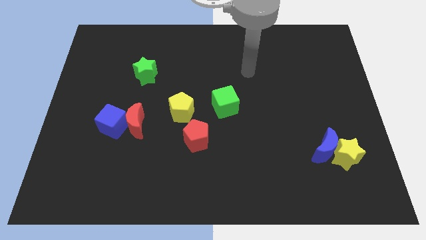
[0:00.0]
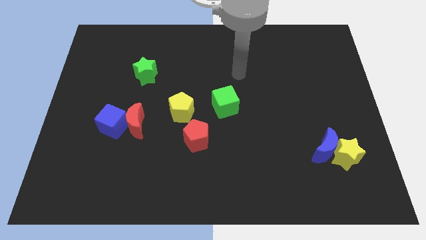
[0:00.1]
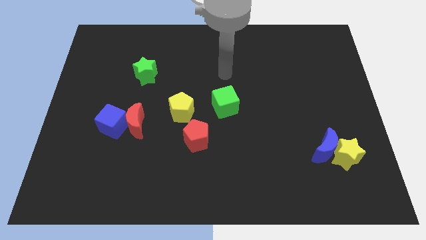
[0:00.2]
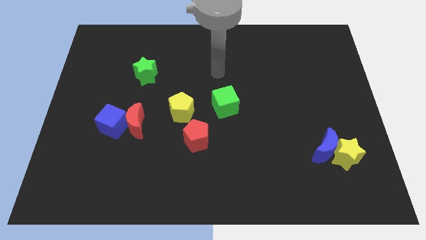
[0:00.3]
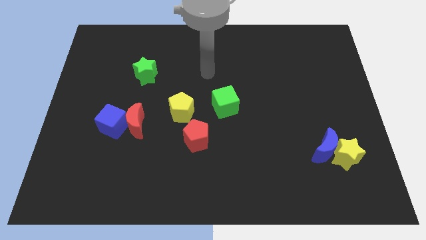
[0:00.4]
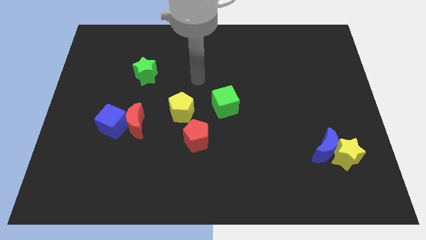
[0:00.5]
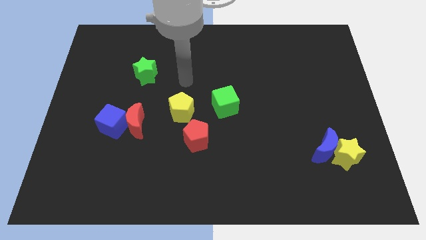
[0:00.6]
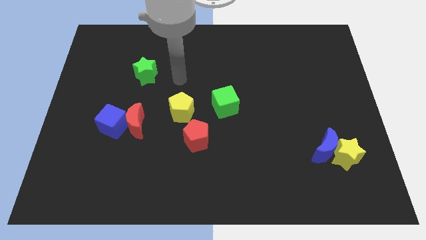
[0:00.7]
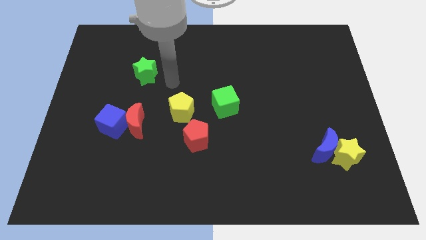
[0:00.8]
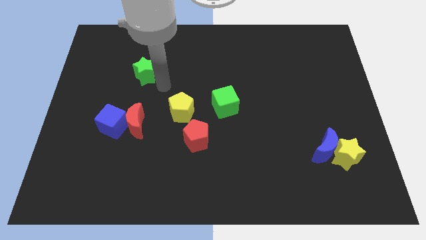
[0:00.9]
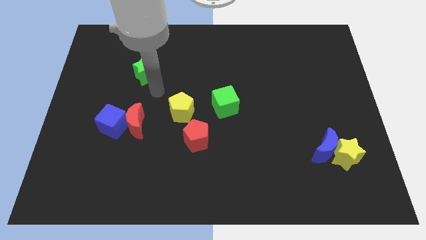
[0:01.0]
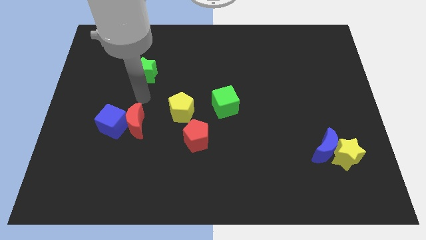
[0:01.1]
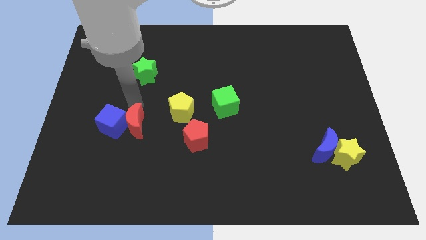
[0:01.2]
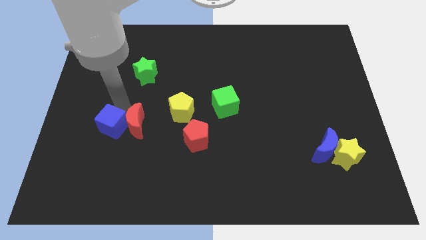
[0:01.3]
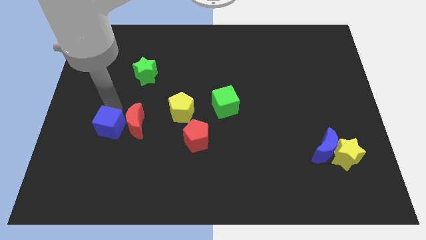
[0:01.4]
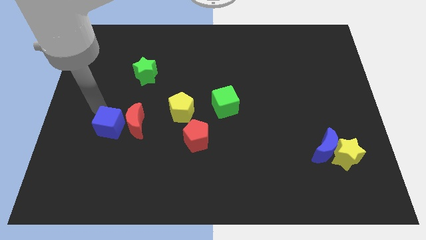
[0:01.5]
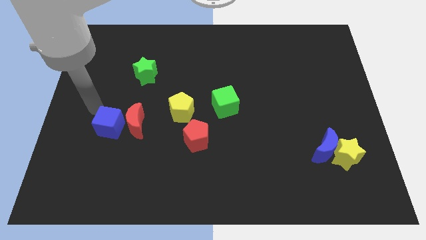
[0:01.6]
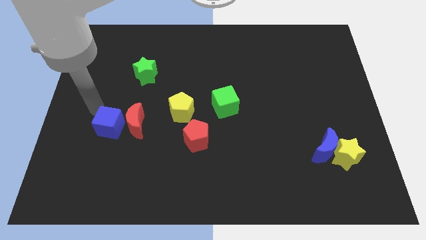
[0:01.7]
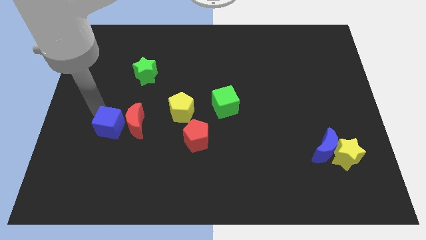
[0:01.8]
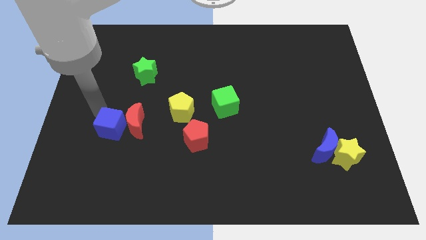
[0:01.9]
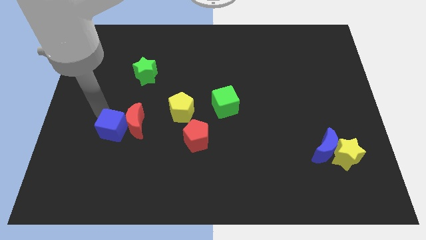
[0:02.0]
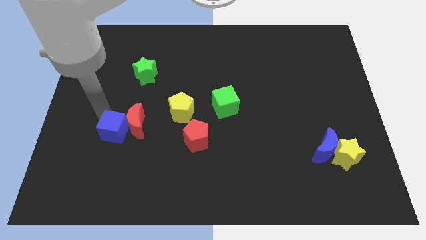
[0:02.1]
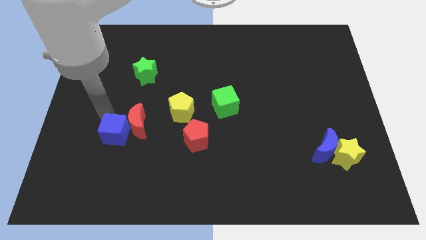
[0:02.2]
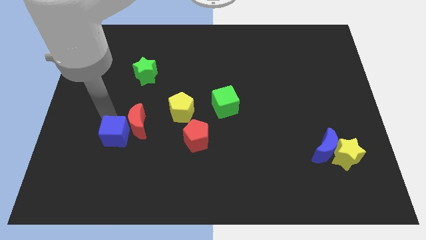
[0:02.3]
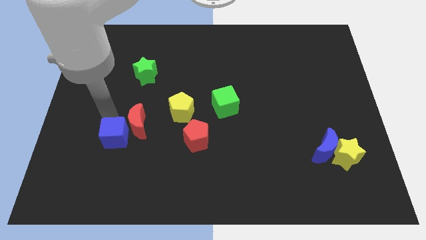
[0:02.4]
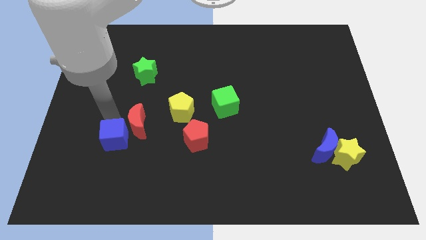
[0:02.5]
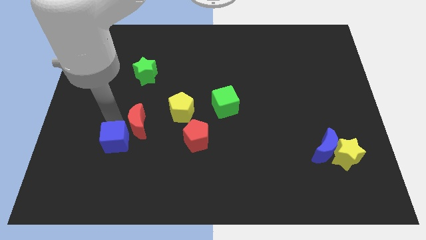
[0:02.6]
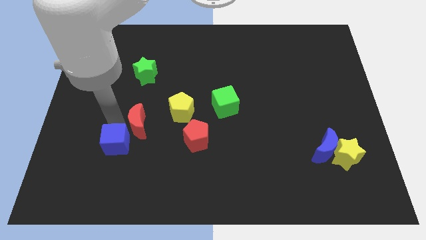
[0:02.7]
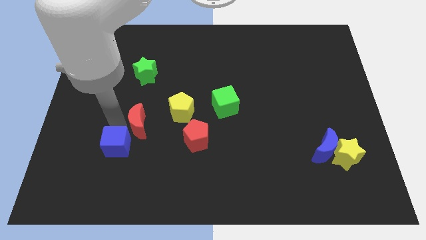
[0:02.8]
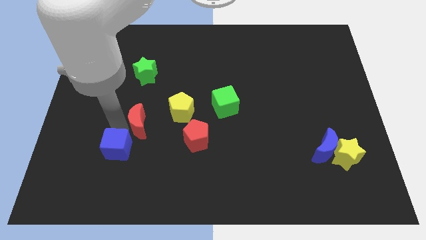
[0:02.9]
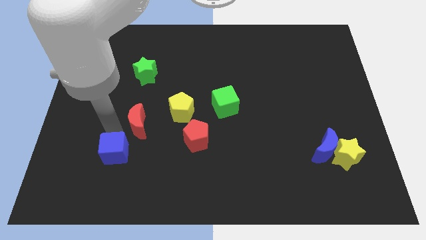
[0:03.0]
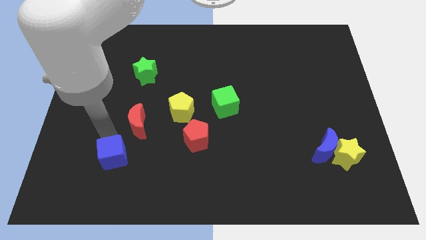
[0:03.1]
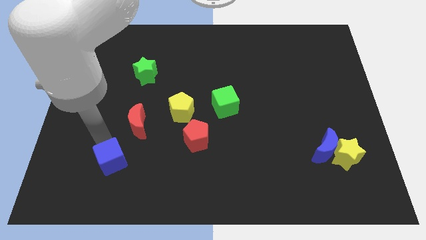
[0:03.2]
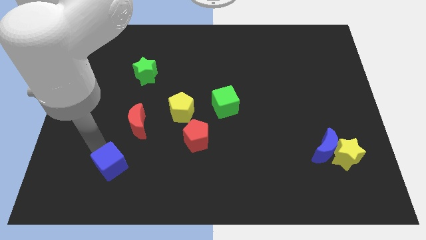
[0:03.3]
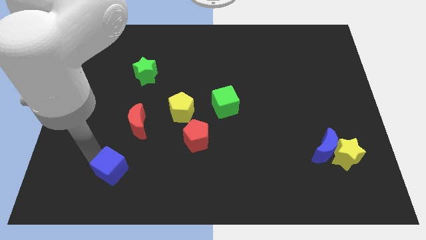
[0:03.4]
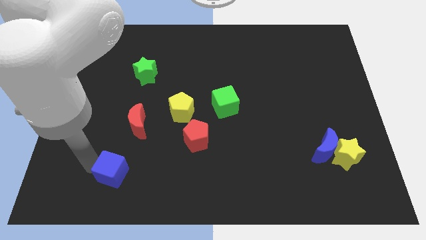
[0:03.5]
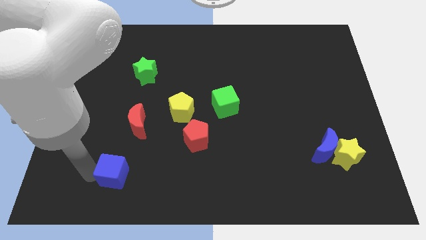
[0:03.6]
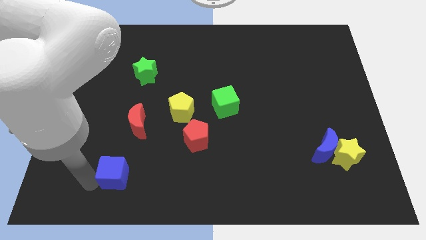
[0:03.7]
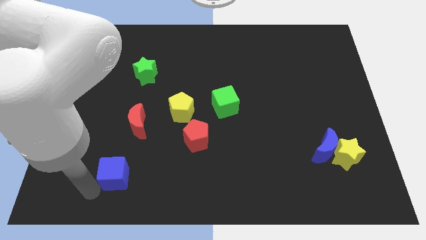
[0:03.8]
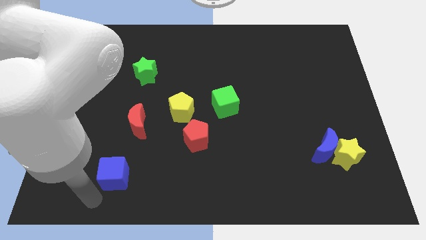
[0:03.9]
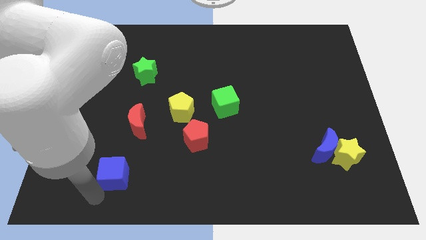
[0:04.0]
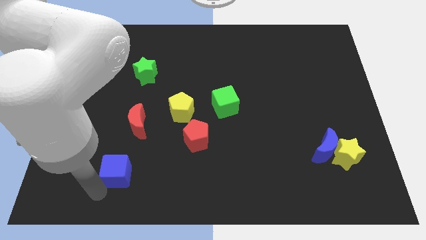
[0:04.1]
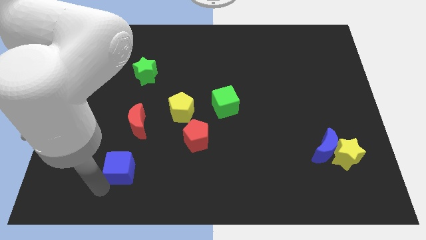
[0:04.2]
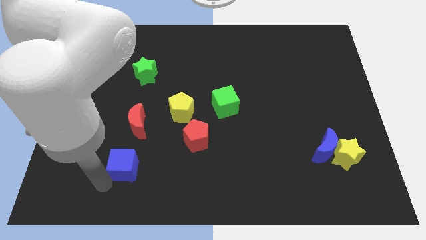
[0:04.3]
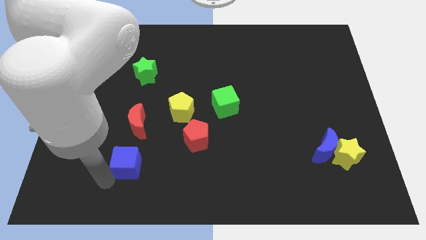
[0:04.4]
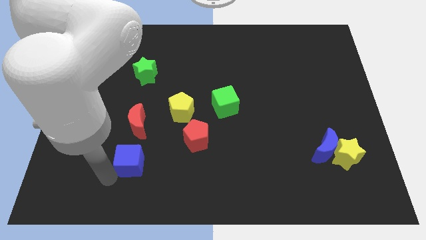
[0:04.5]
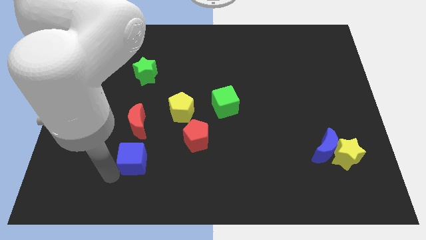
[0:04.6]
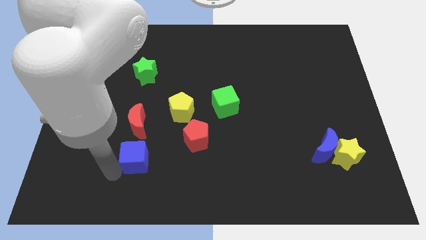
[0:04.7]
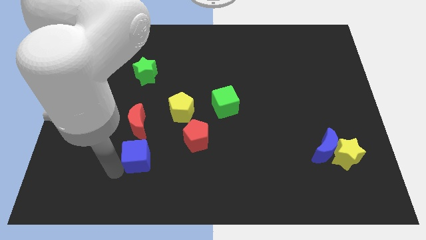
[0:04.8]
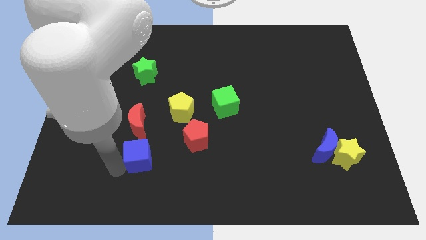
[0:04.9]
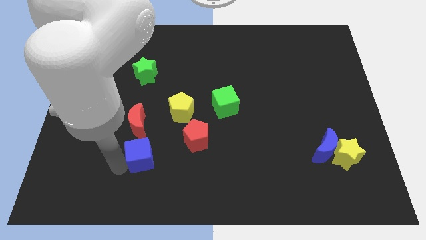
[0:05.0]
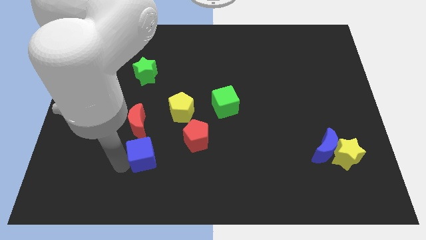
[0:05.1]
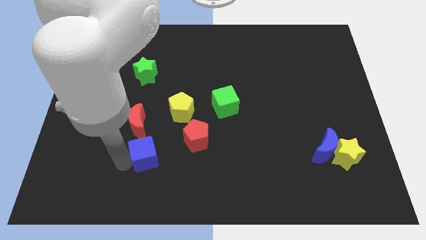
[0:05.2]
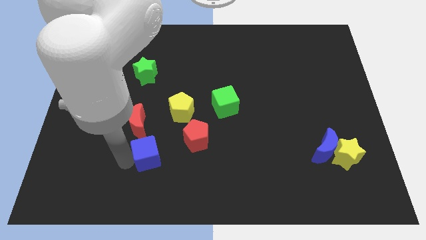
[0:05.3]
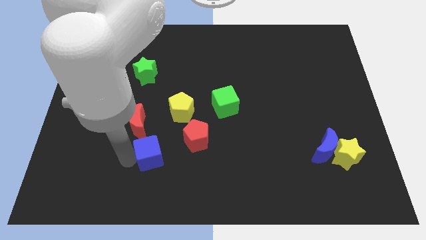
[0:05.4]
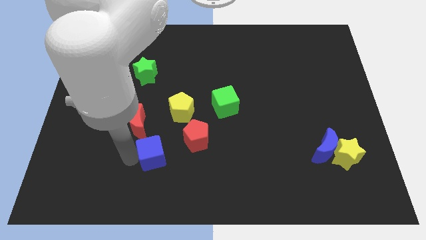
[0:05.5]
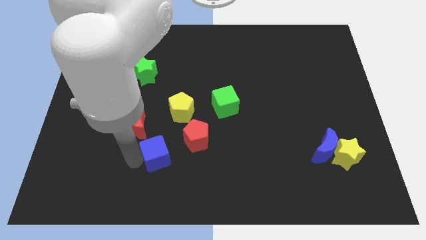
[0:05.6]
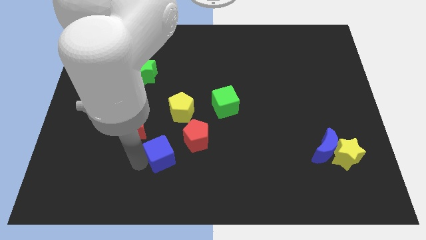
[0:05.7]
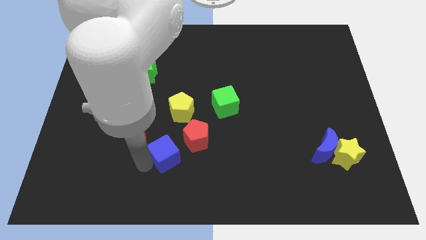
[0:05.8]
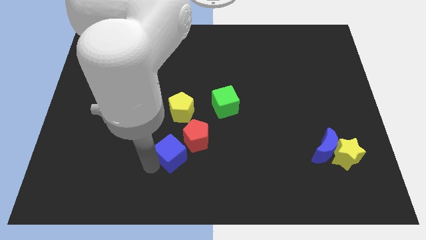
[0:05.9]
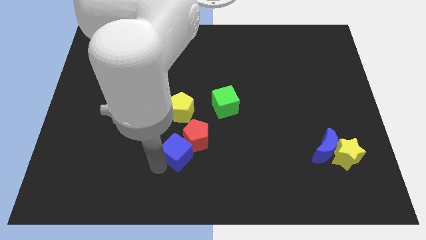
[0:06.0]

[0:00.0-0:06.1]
move the blue cube close to the red pentagon

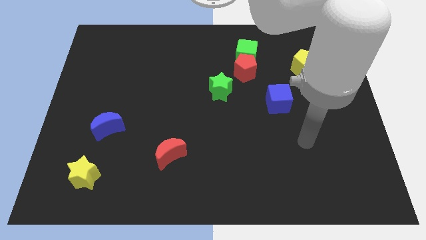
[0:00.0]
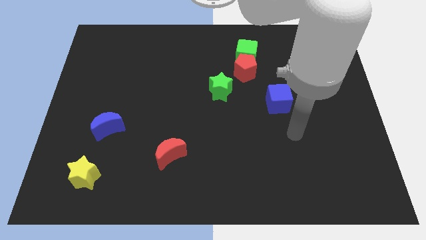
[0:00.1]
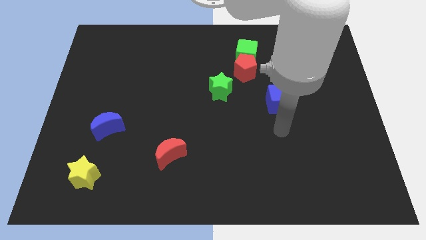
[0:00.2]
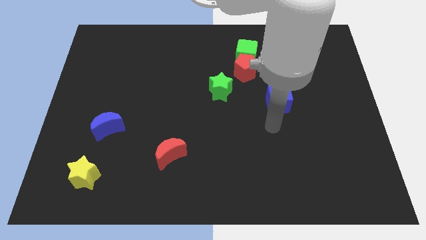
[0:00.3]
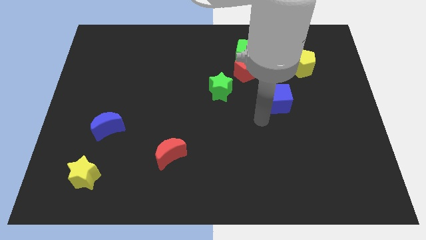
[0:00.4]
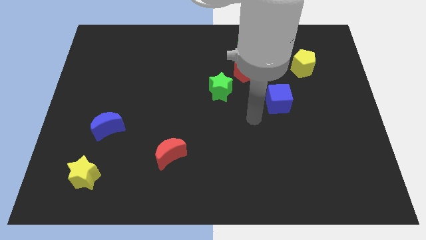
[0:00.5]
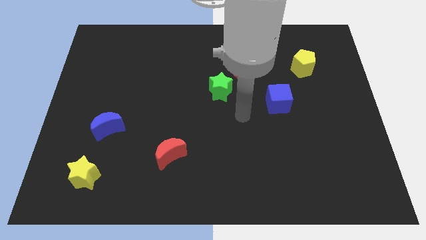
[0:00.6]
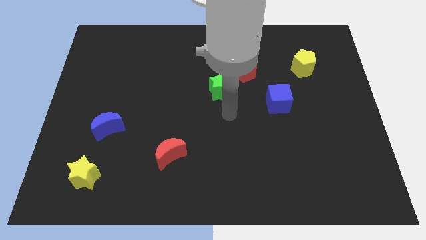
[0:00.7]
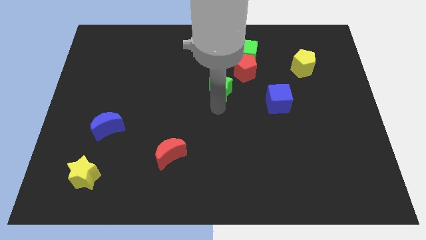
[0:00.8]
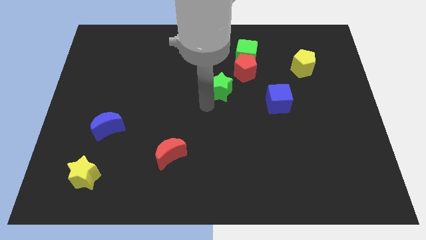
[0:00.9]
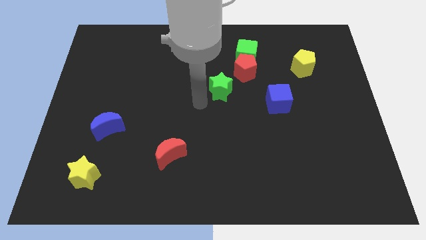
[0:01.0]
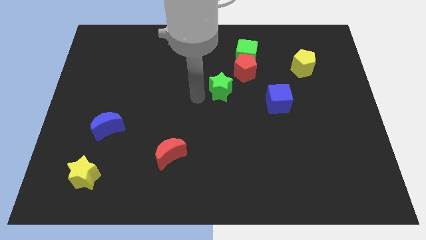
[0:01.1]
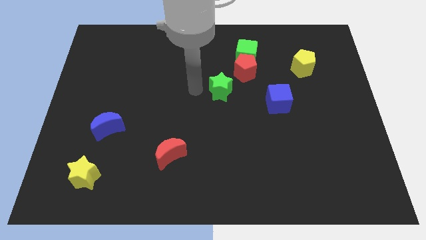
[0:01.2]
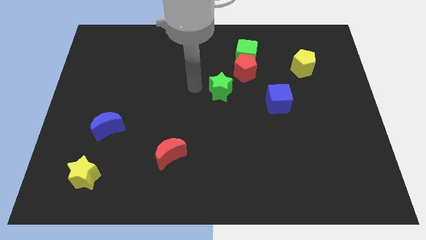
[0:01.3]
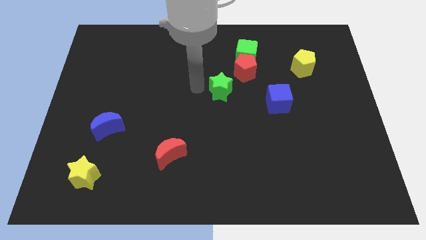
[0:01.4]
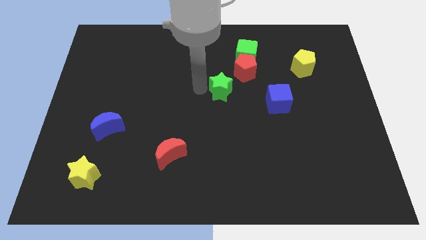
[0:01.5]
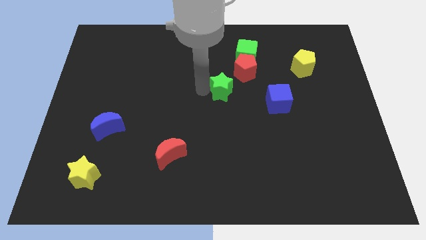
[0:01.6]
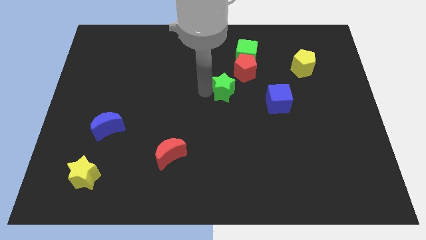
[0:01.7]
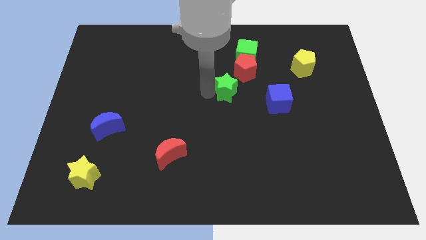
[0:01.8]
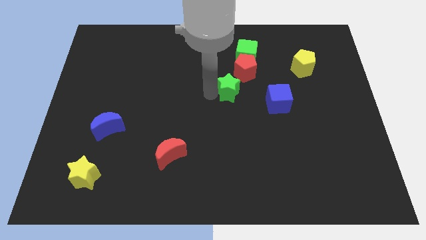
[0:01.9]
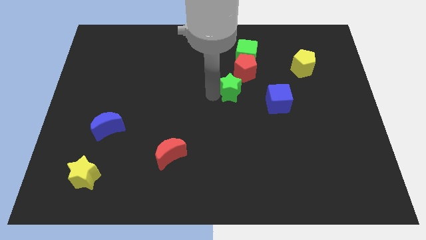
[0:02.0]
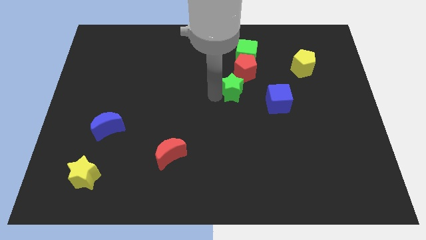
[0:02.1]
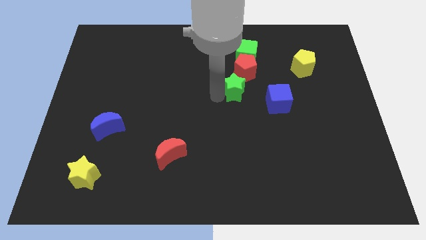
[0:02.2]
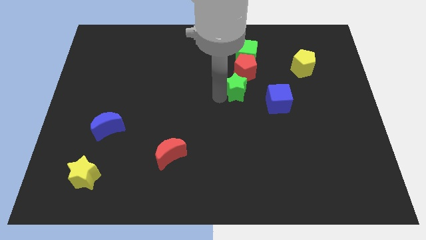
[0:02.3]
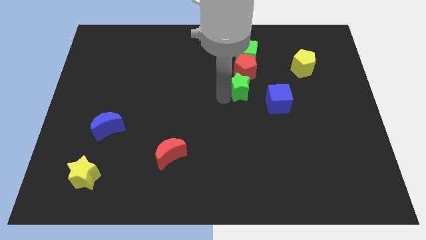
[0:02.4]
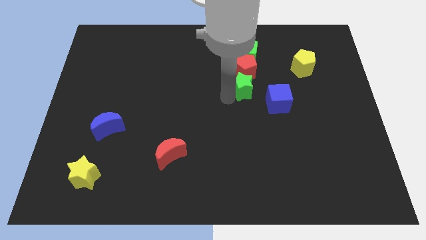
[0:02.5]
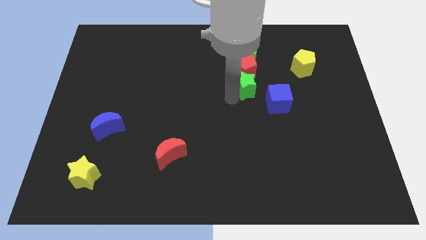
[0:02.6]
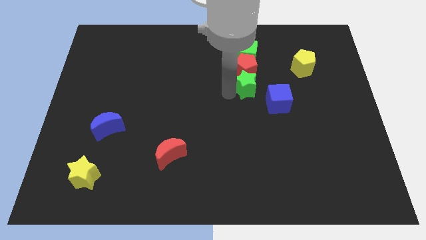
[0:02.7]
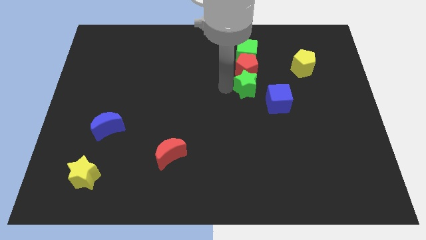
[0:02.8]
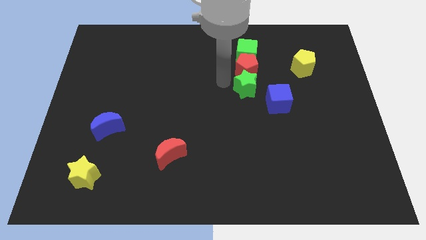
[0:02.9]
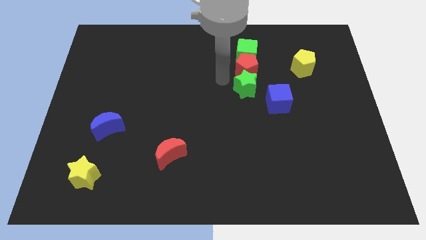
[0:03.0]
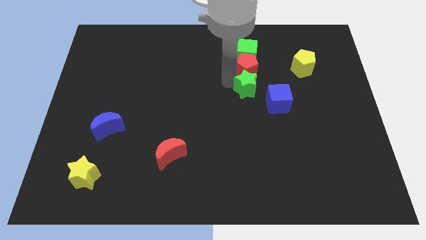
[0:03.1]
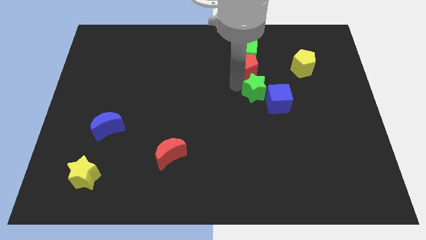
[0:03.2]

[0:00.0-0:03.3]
put the green star close to the blue cube
